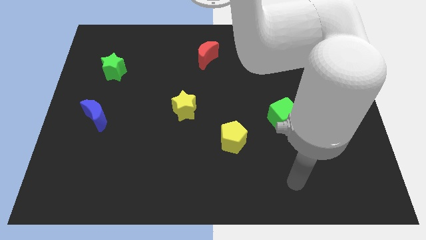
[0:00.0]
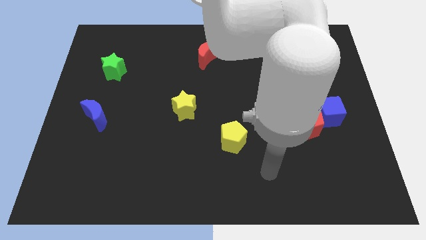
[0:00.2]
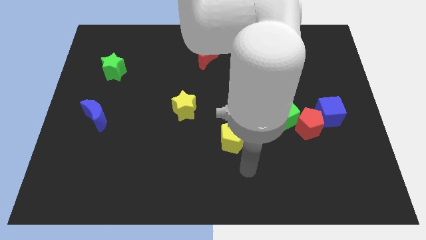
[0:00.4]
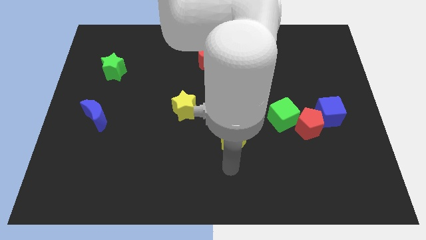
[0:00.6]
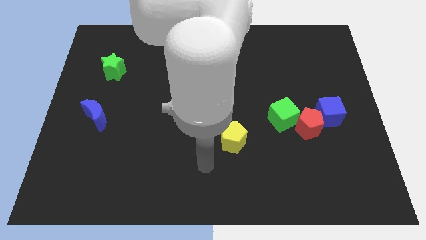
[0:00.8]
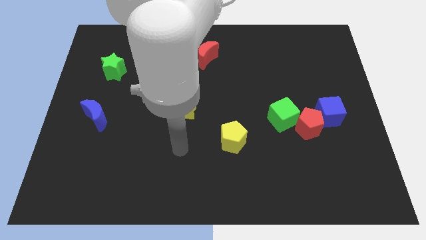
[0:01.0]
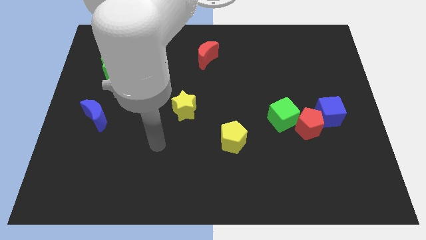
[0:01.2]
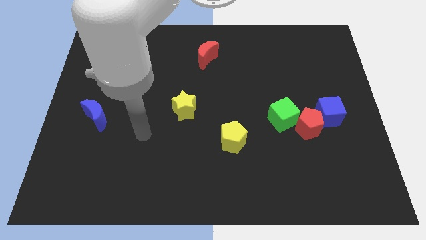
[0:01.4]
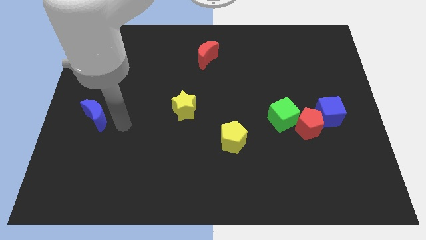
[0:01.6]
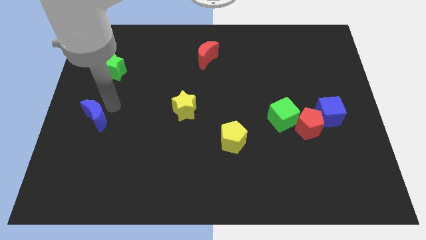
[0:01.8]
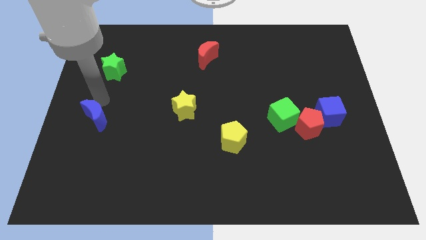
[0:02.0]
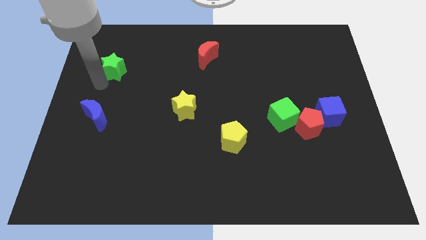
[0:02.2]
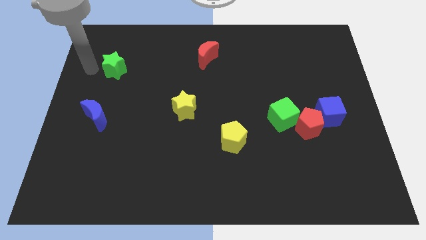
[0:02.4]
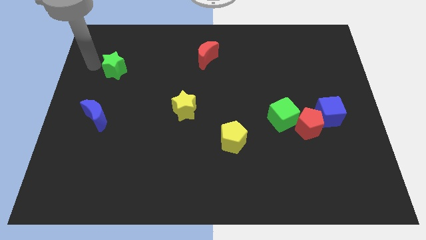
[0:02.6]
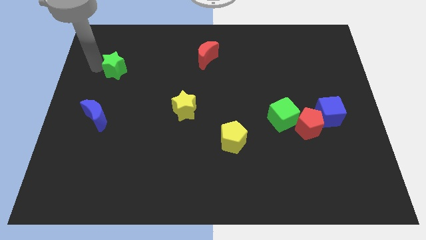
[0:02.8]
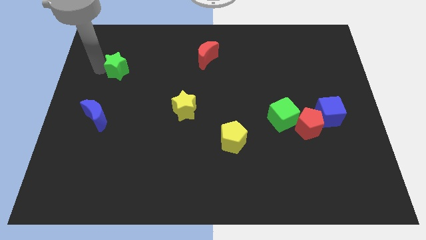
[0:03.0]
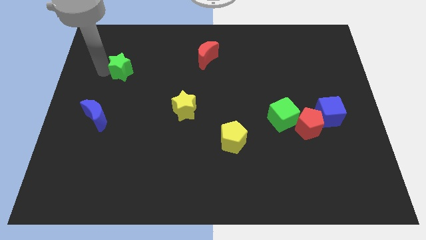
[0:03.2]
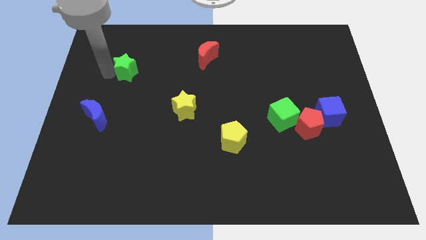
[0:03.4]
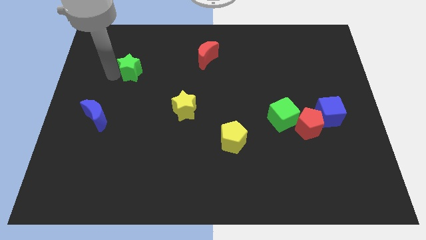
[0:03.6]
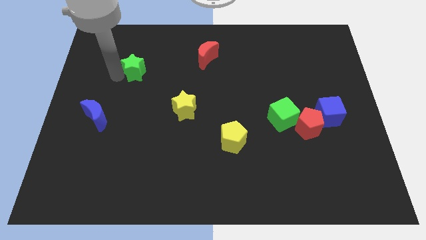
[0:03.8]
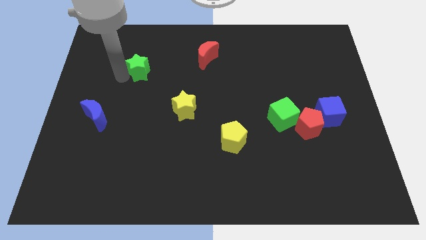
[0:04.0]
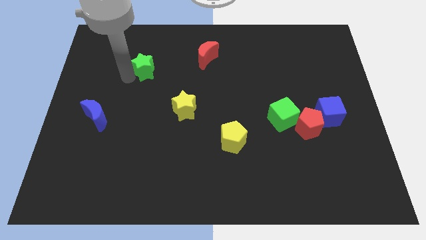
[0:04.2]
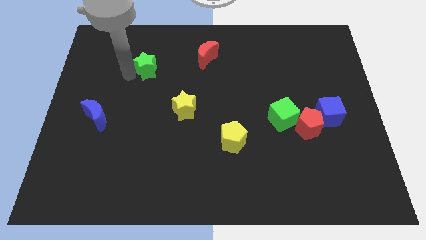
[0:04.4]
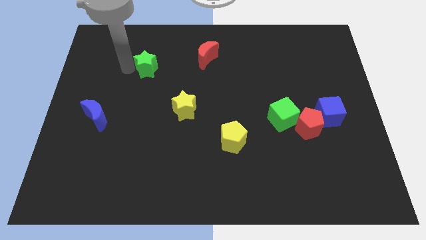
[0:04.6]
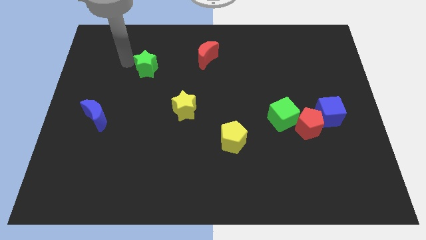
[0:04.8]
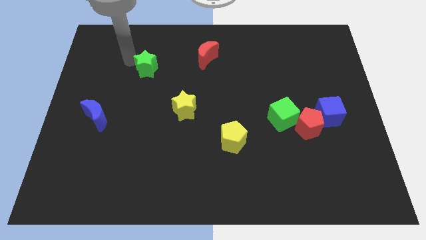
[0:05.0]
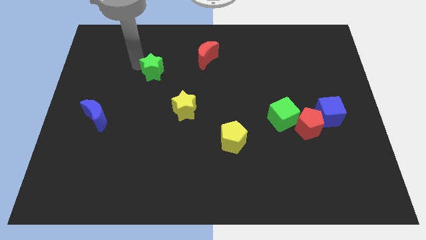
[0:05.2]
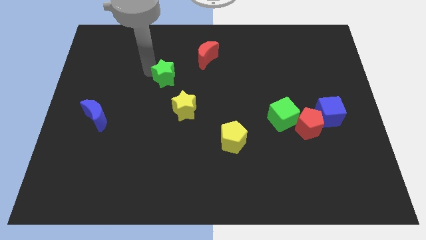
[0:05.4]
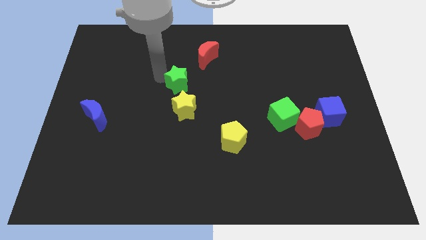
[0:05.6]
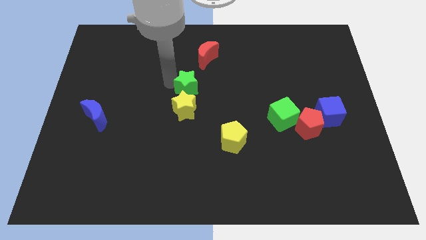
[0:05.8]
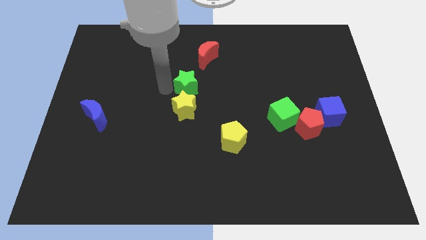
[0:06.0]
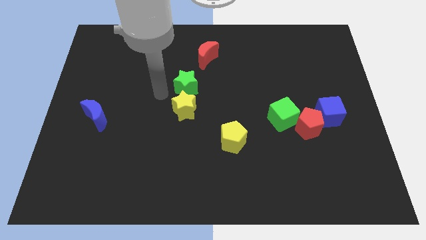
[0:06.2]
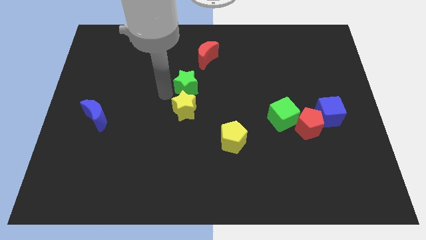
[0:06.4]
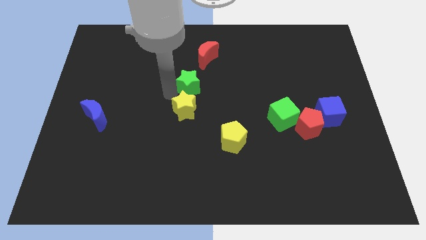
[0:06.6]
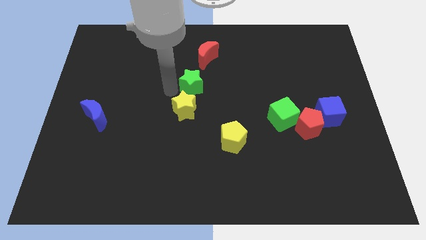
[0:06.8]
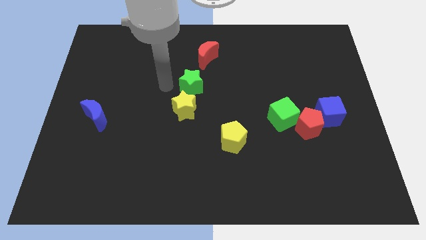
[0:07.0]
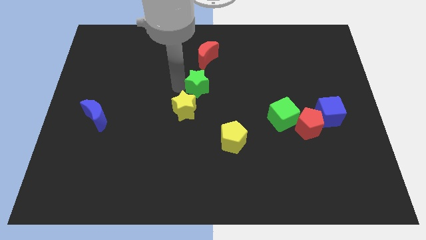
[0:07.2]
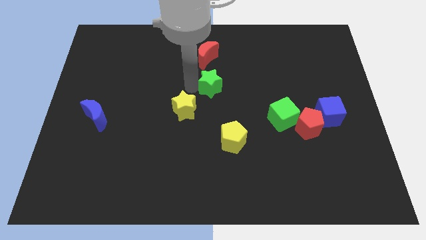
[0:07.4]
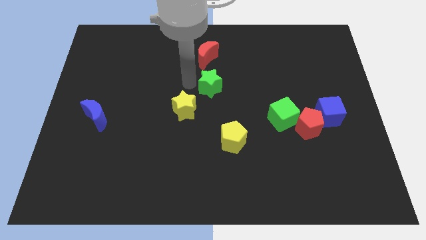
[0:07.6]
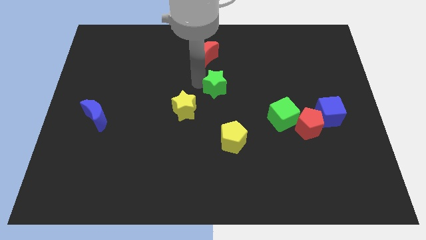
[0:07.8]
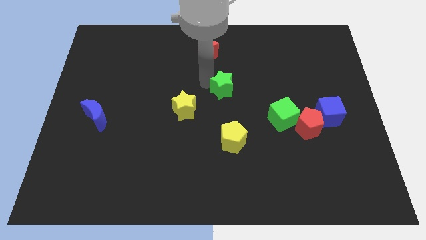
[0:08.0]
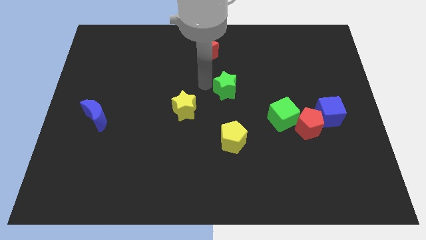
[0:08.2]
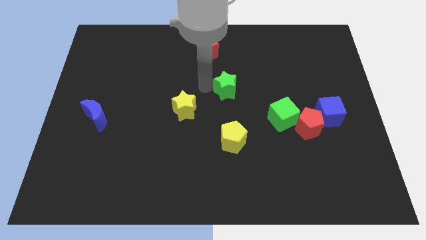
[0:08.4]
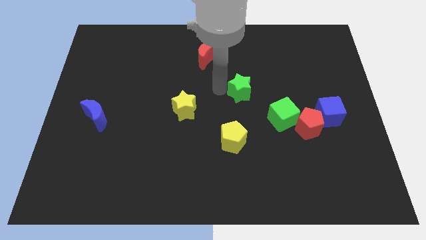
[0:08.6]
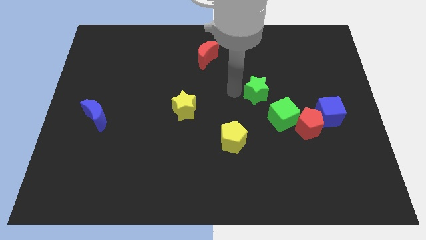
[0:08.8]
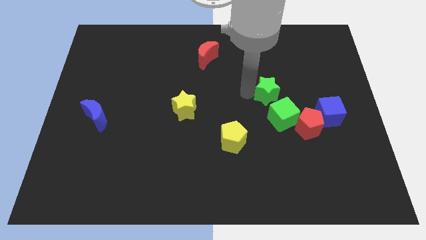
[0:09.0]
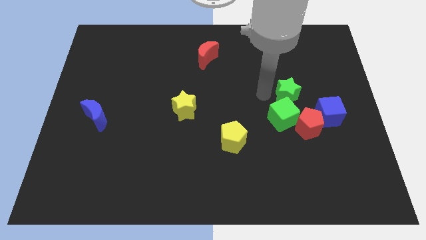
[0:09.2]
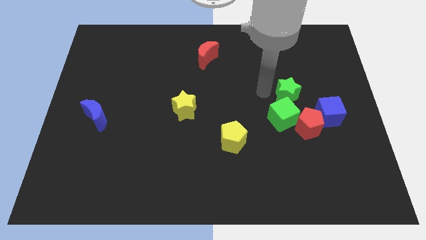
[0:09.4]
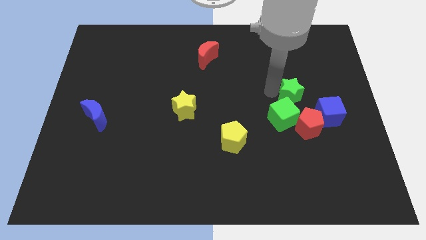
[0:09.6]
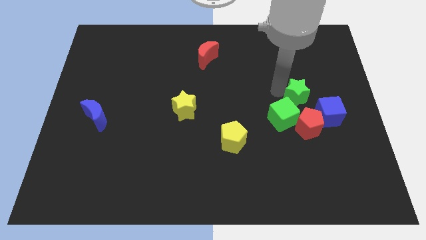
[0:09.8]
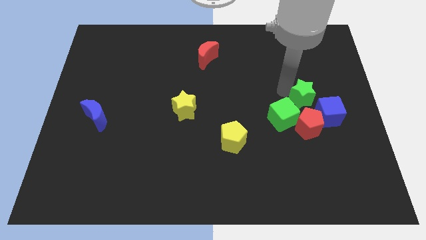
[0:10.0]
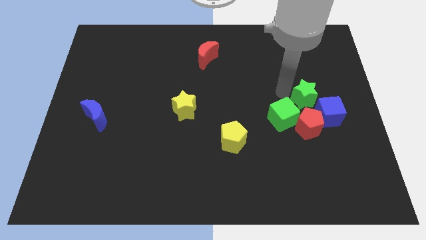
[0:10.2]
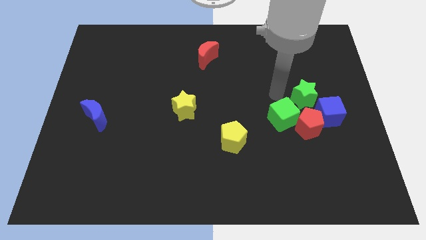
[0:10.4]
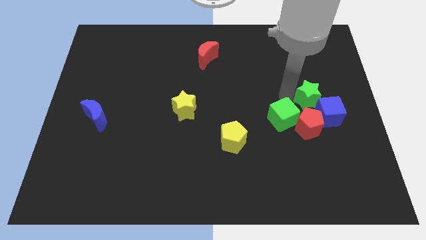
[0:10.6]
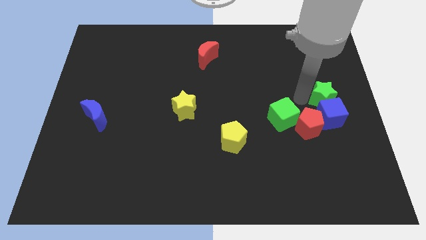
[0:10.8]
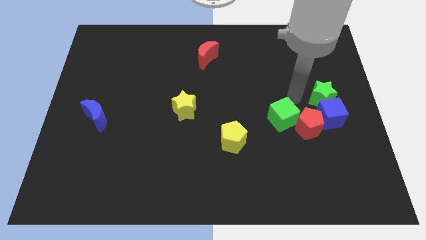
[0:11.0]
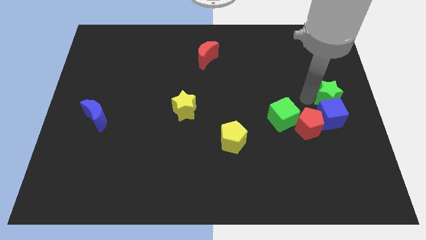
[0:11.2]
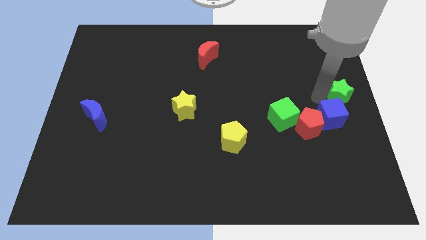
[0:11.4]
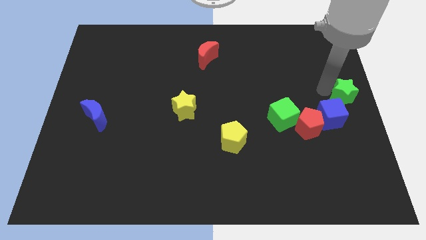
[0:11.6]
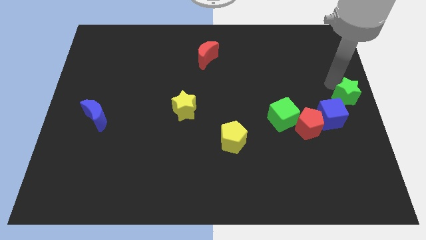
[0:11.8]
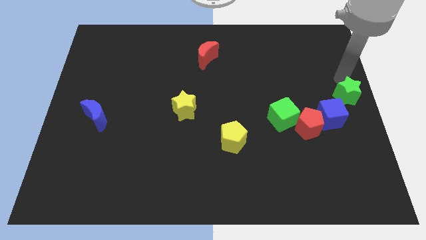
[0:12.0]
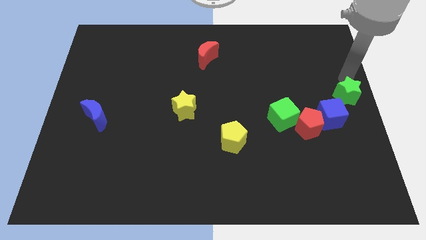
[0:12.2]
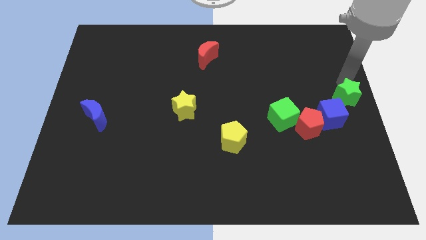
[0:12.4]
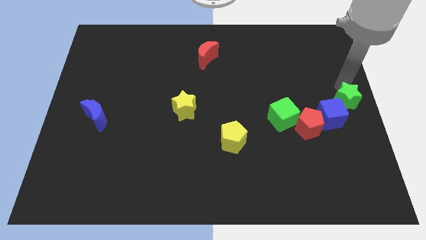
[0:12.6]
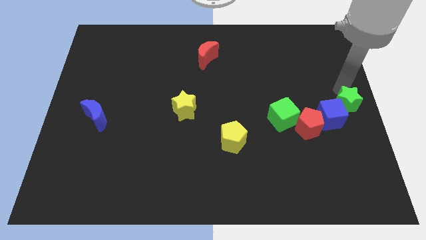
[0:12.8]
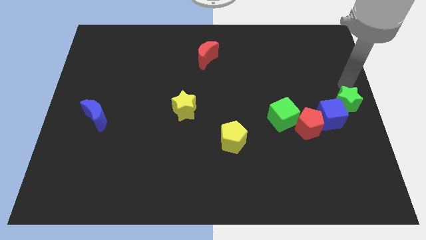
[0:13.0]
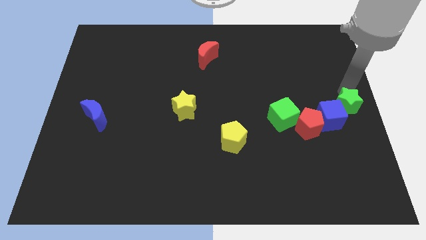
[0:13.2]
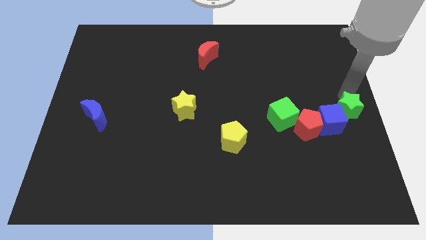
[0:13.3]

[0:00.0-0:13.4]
push the green star to the right of the green cube

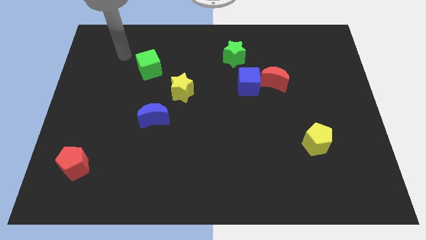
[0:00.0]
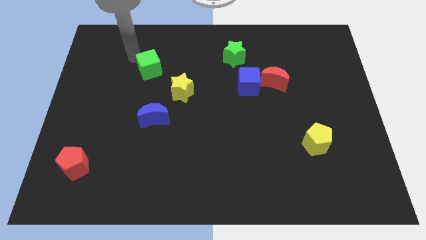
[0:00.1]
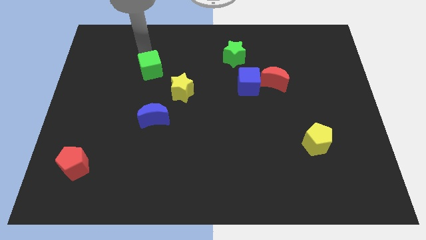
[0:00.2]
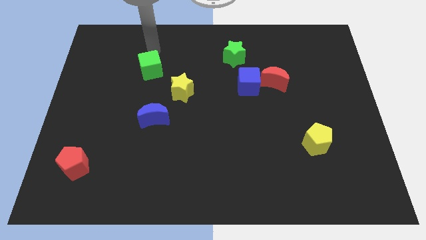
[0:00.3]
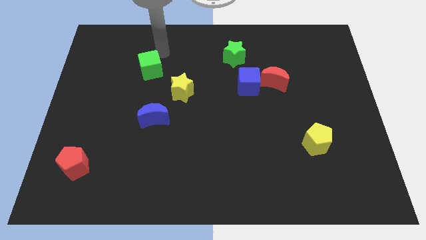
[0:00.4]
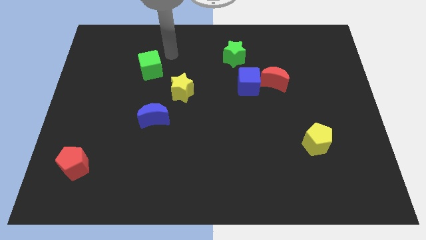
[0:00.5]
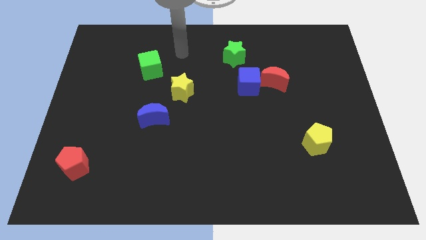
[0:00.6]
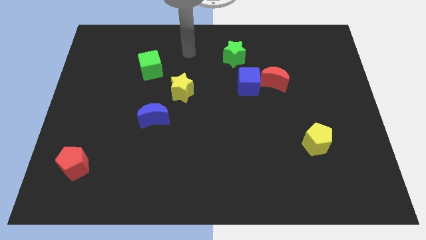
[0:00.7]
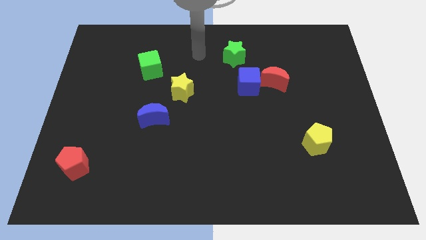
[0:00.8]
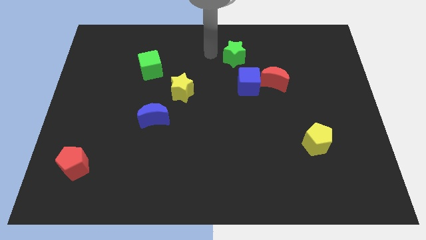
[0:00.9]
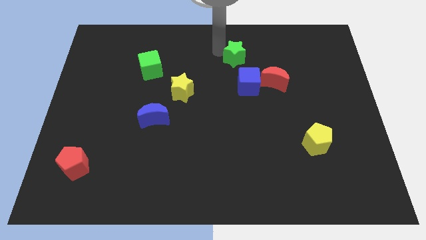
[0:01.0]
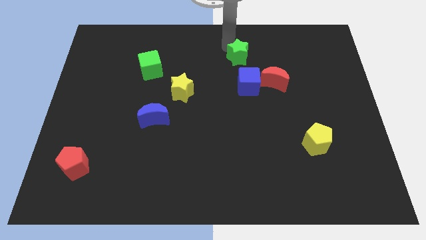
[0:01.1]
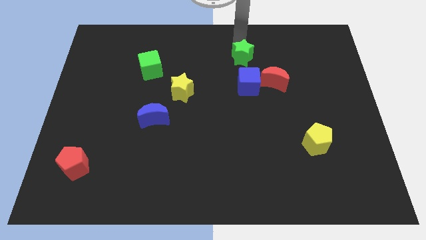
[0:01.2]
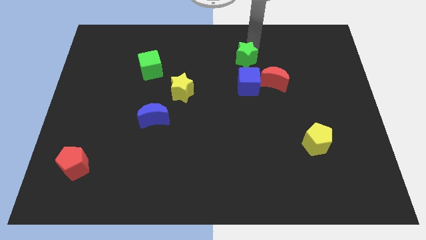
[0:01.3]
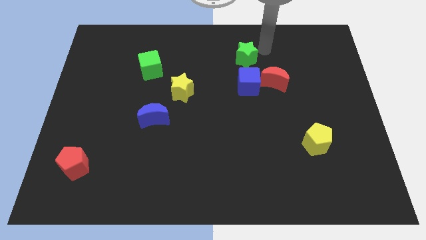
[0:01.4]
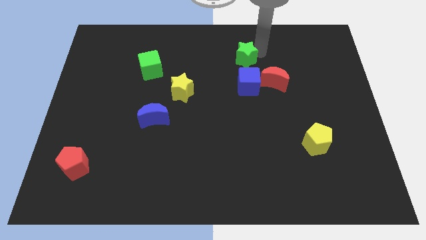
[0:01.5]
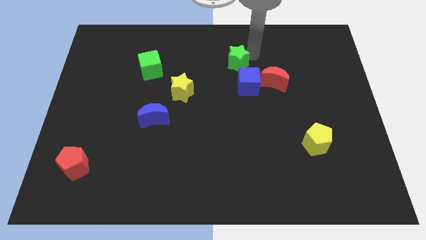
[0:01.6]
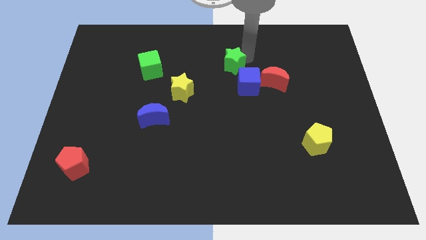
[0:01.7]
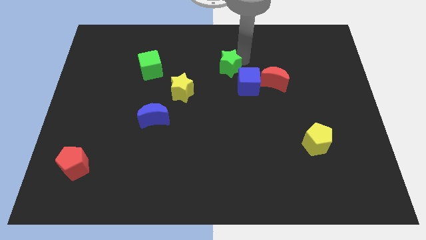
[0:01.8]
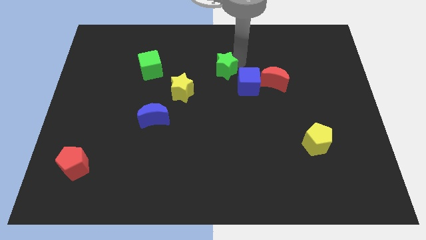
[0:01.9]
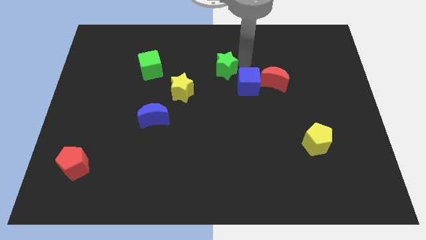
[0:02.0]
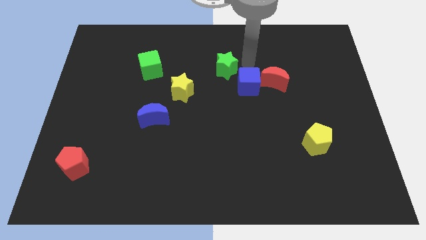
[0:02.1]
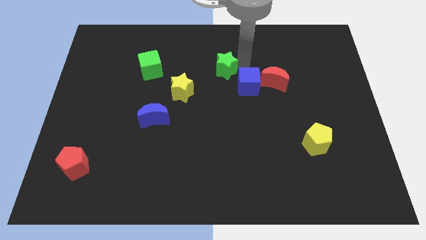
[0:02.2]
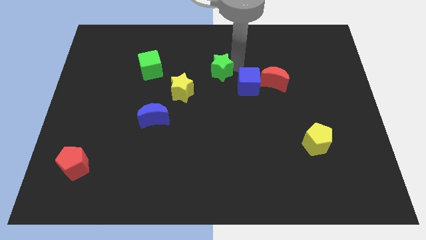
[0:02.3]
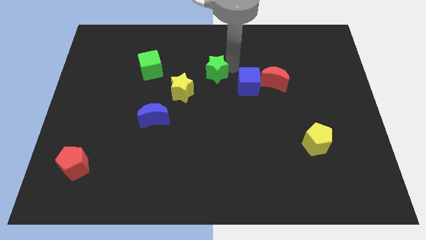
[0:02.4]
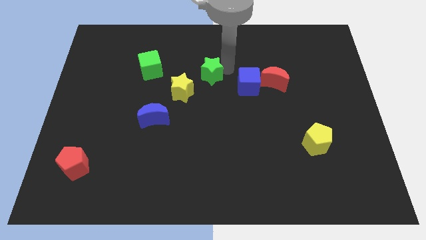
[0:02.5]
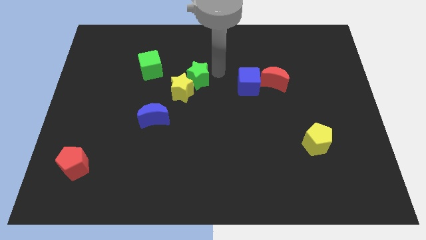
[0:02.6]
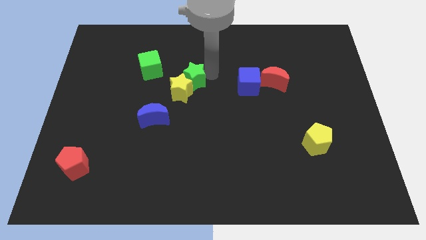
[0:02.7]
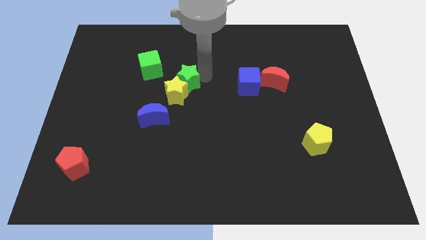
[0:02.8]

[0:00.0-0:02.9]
slide the green star diagonally down and to the right of the green cube
